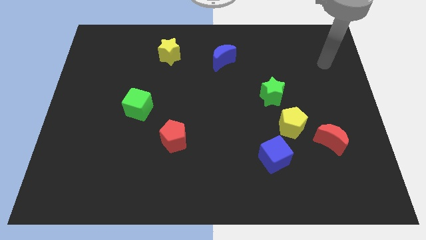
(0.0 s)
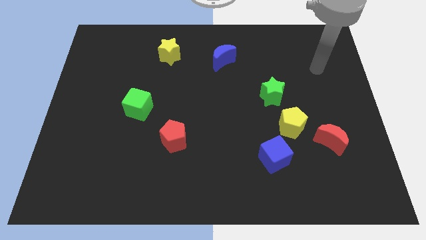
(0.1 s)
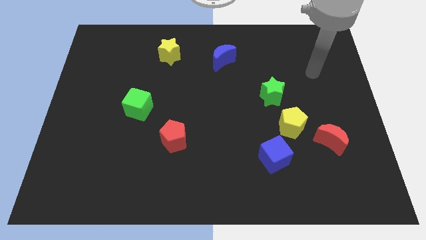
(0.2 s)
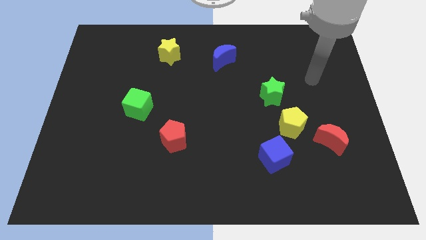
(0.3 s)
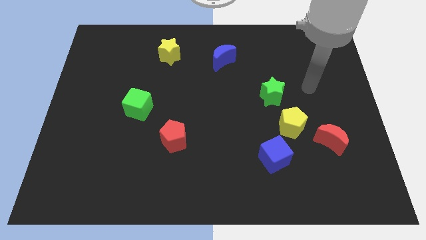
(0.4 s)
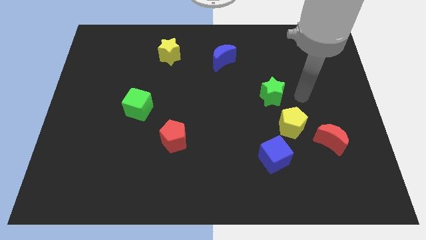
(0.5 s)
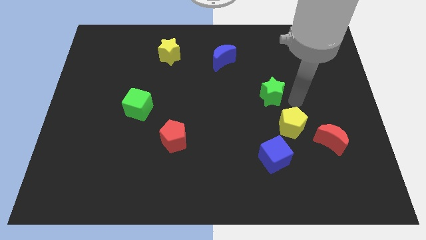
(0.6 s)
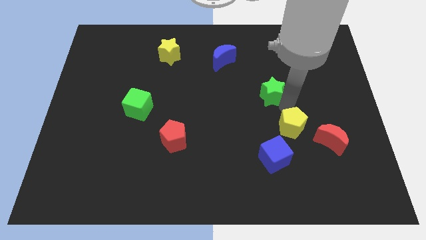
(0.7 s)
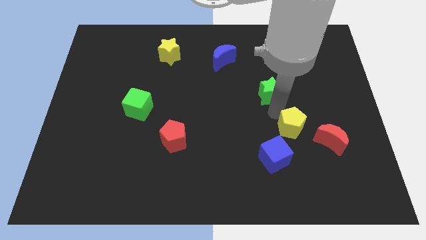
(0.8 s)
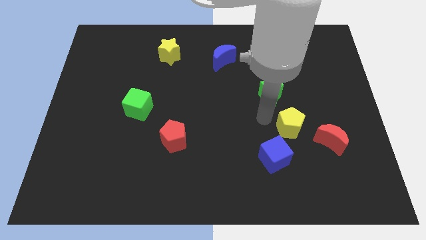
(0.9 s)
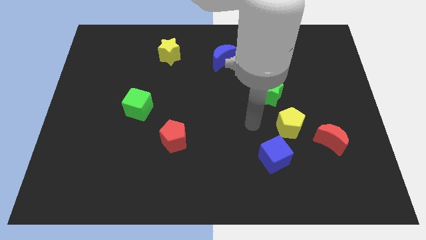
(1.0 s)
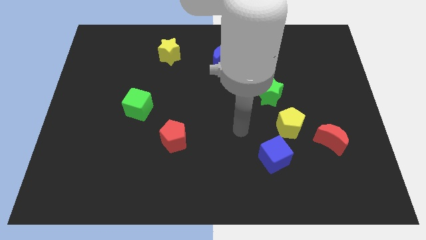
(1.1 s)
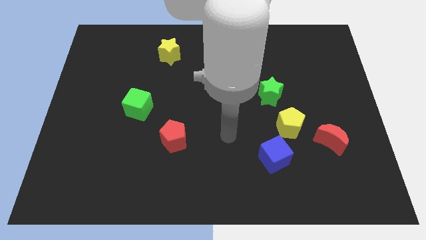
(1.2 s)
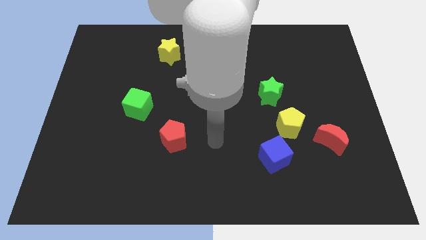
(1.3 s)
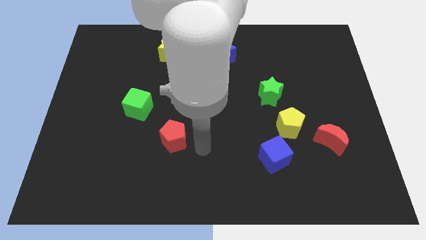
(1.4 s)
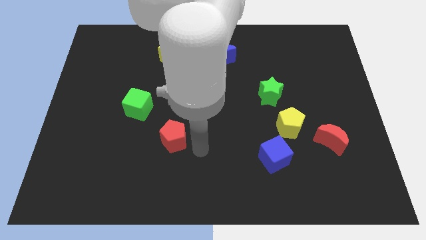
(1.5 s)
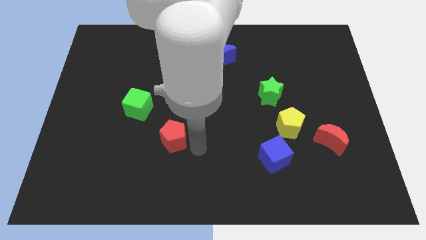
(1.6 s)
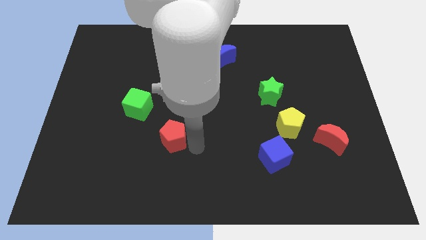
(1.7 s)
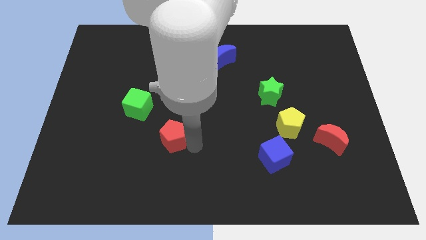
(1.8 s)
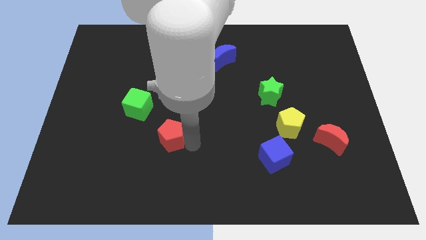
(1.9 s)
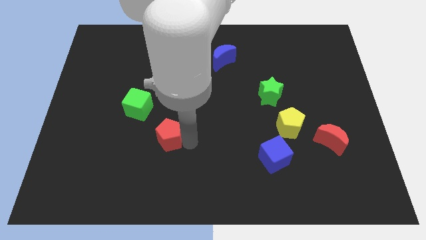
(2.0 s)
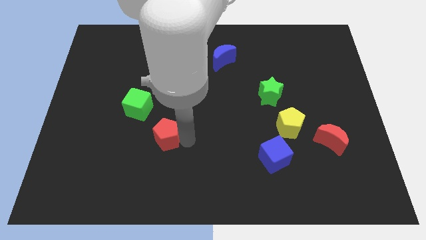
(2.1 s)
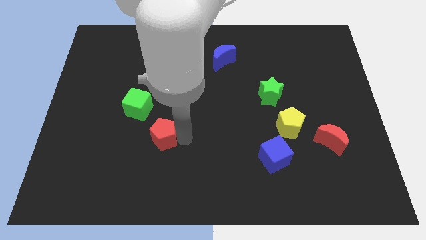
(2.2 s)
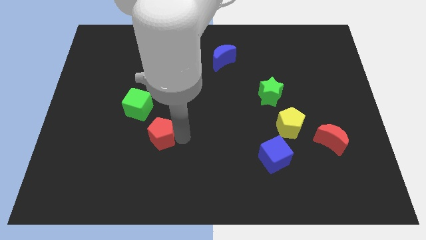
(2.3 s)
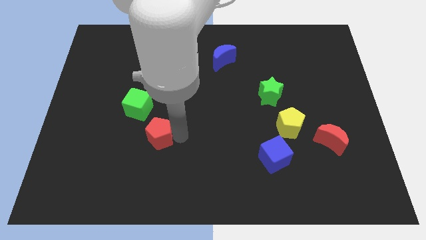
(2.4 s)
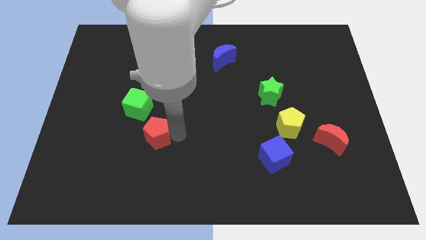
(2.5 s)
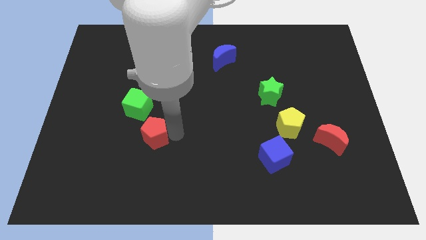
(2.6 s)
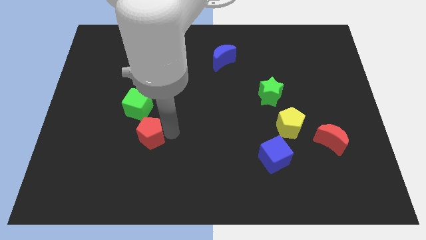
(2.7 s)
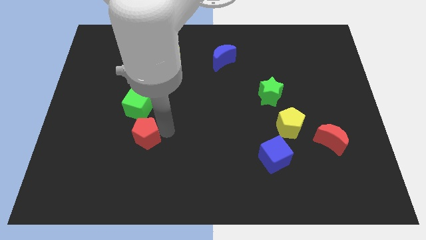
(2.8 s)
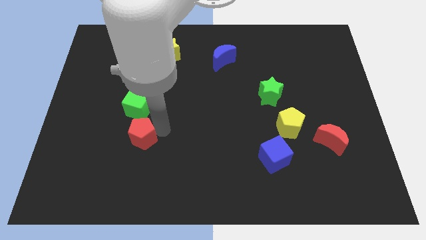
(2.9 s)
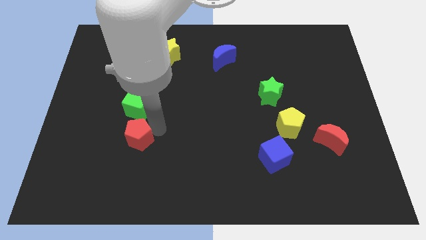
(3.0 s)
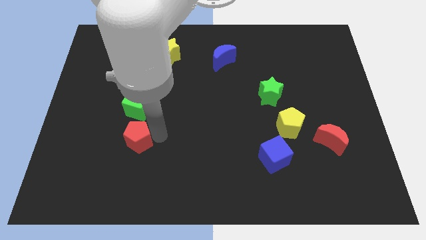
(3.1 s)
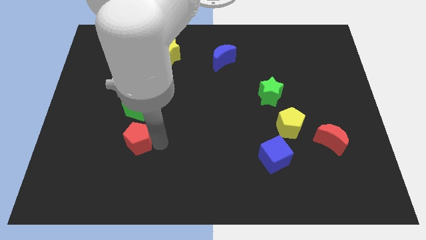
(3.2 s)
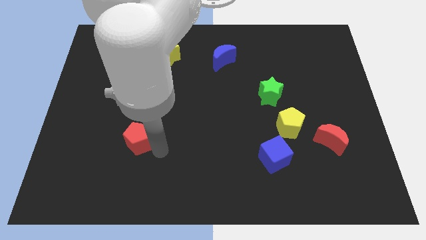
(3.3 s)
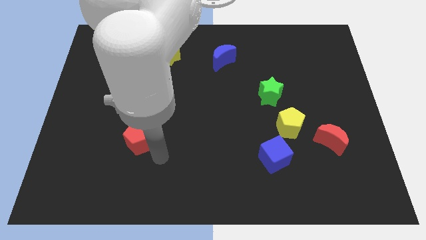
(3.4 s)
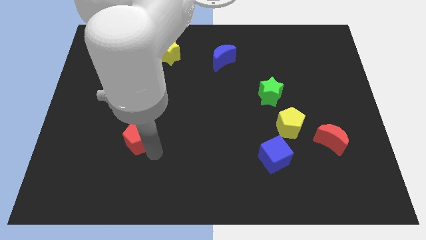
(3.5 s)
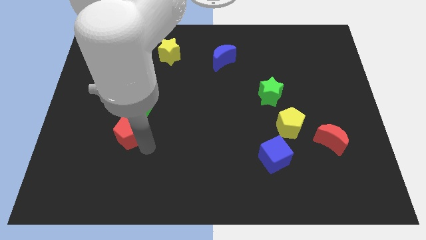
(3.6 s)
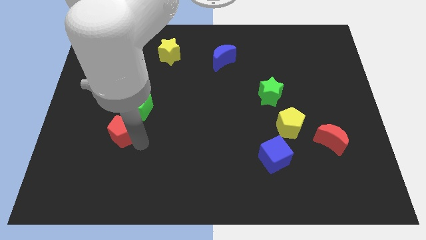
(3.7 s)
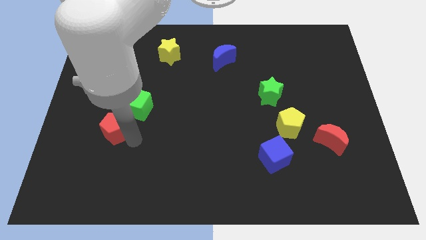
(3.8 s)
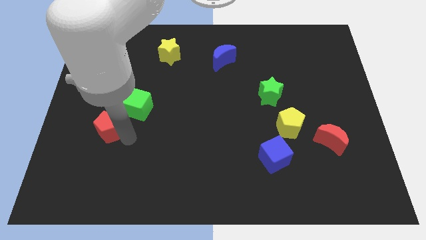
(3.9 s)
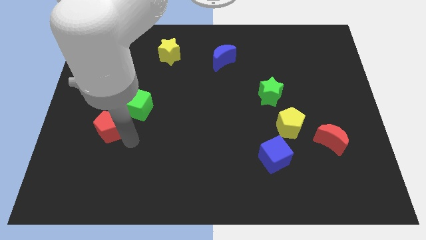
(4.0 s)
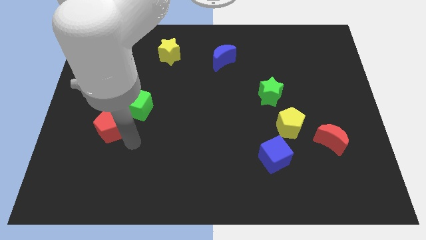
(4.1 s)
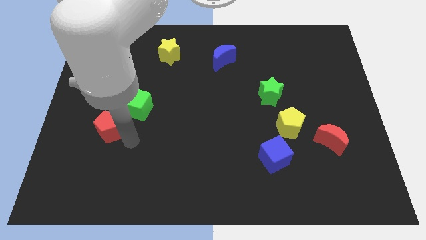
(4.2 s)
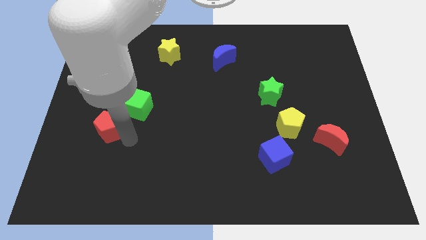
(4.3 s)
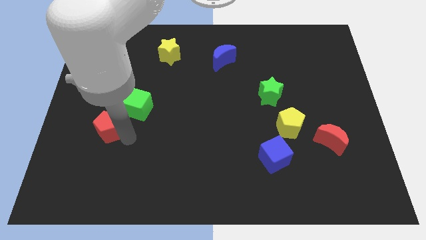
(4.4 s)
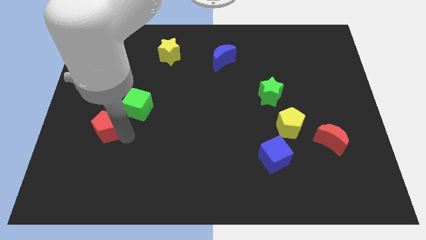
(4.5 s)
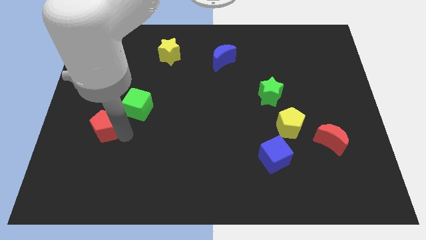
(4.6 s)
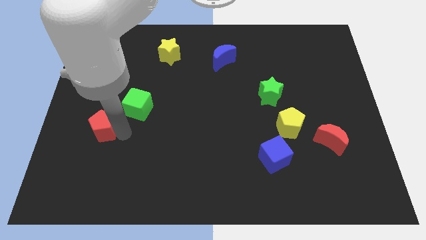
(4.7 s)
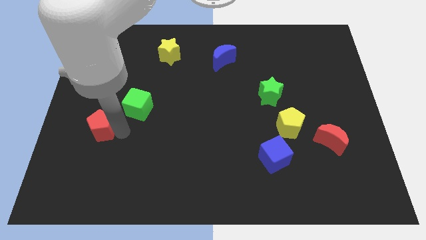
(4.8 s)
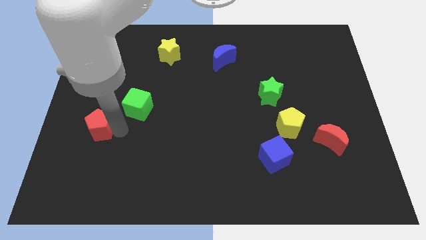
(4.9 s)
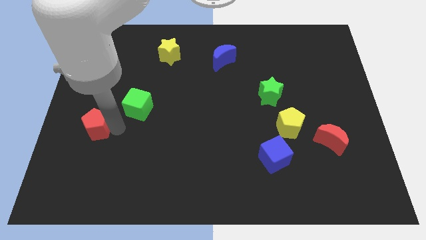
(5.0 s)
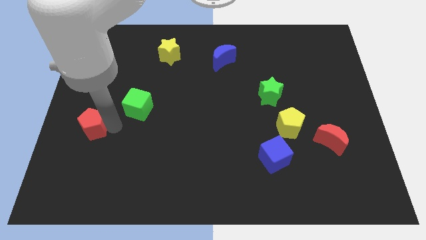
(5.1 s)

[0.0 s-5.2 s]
slide the red pentagon to the center left

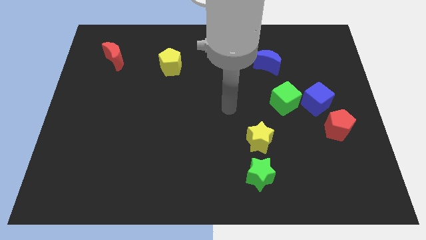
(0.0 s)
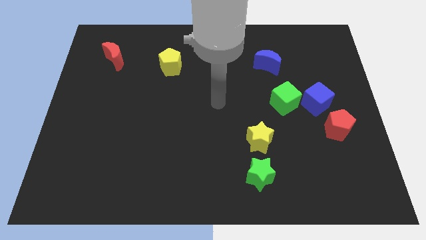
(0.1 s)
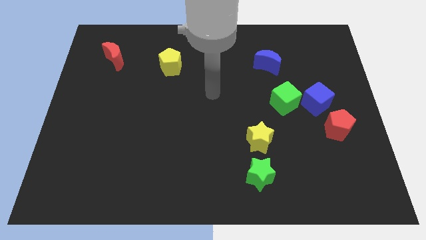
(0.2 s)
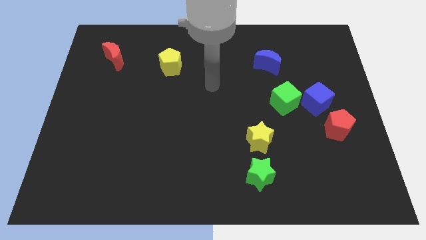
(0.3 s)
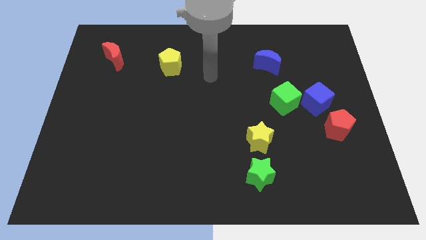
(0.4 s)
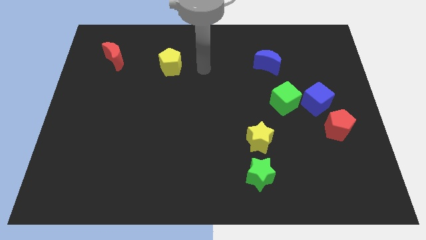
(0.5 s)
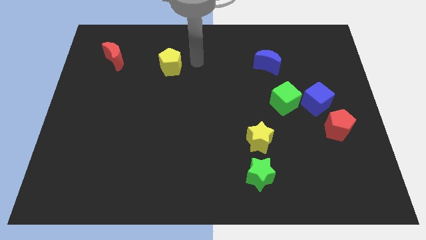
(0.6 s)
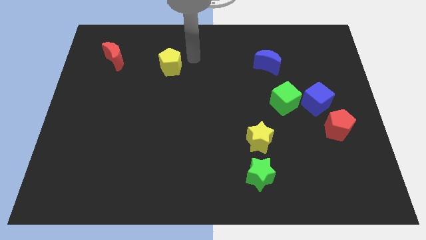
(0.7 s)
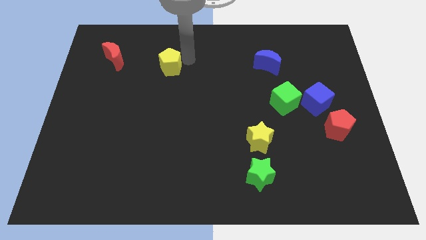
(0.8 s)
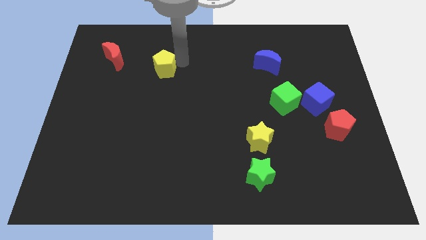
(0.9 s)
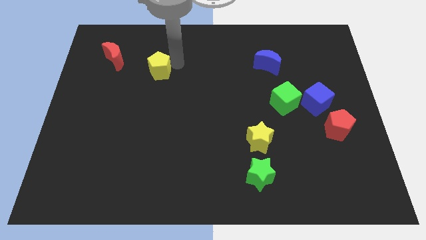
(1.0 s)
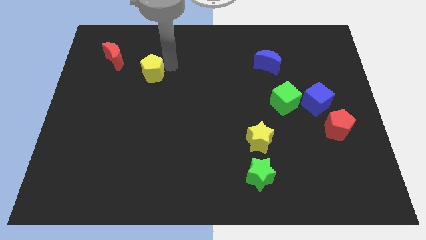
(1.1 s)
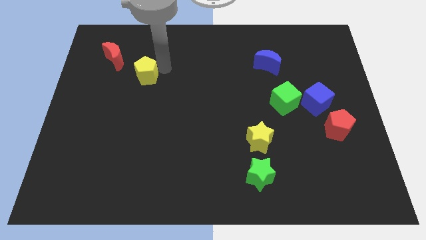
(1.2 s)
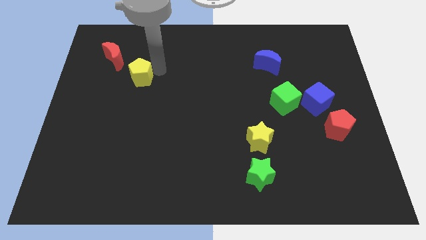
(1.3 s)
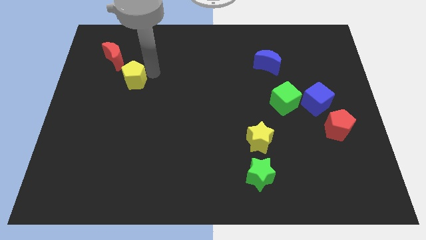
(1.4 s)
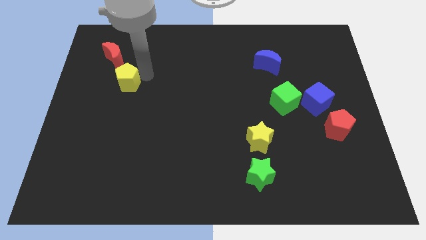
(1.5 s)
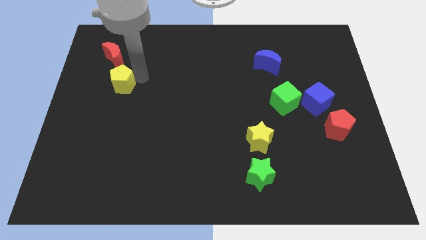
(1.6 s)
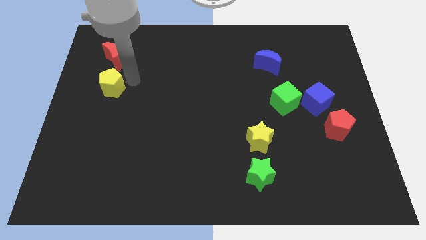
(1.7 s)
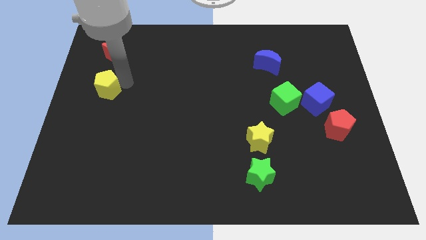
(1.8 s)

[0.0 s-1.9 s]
push the yellow pentagon to the left side

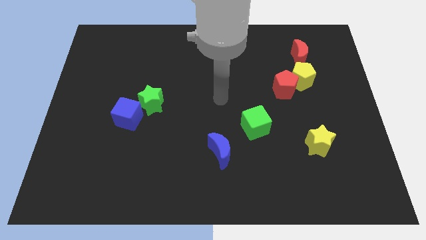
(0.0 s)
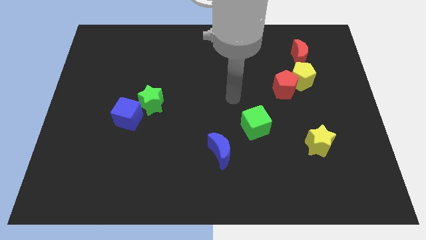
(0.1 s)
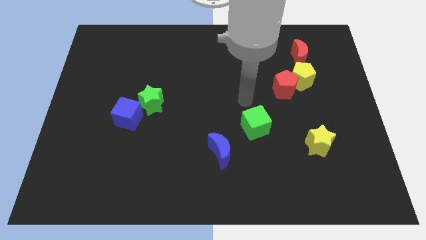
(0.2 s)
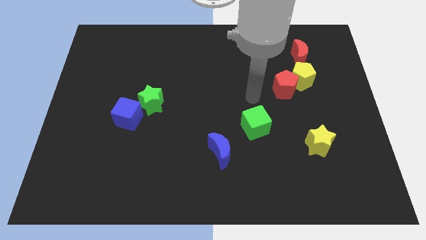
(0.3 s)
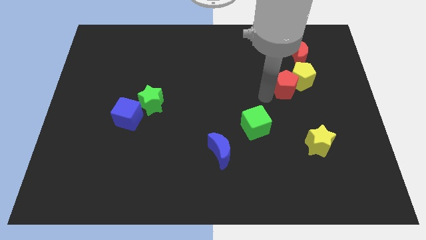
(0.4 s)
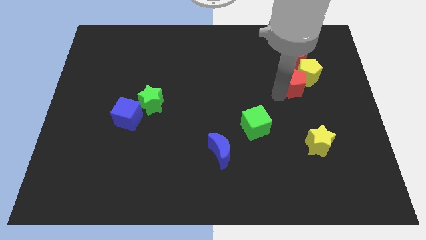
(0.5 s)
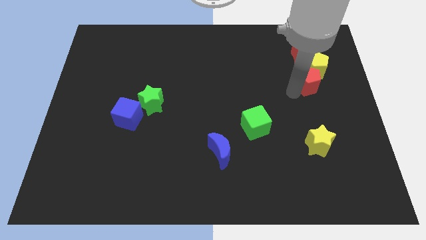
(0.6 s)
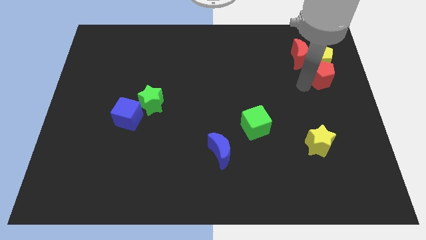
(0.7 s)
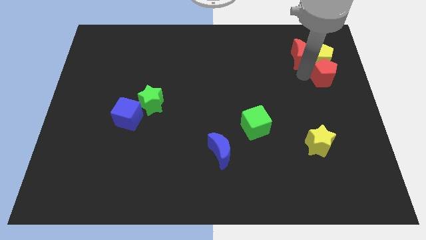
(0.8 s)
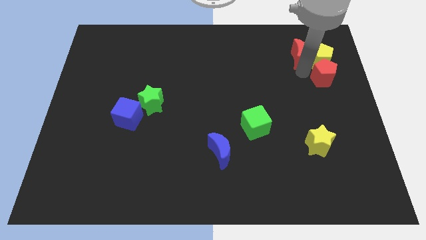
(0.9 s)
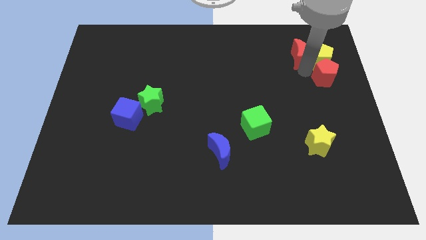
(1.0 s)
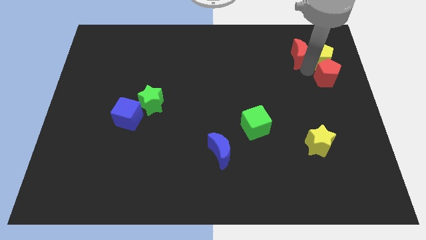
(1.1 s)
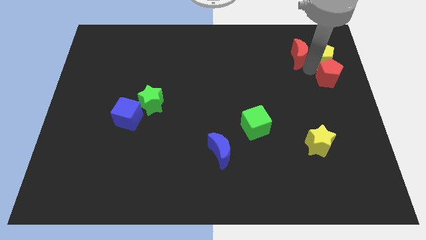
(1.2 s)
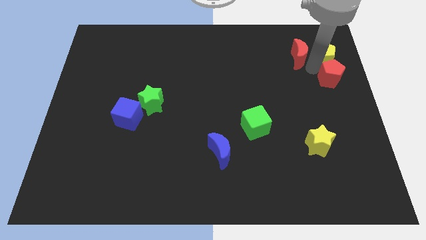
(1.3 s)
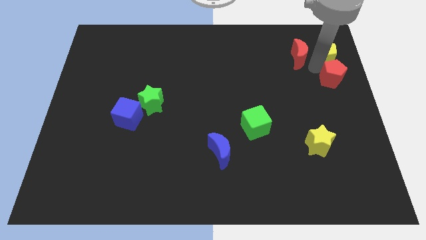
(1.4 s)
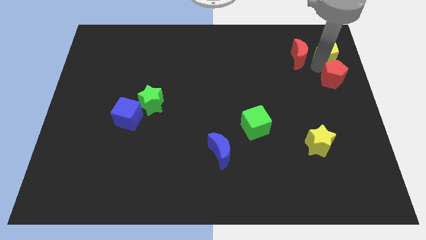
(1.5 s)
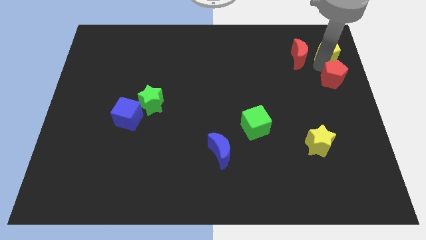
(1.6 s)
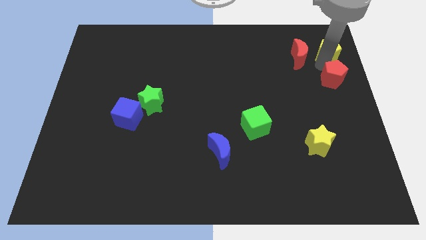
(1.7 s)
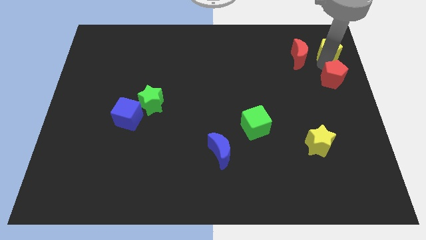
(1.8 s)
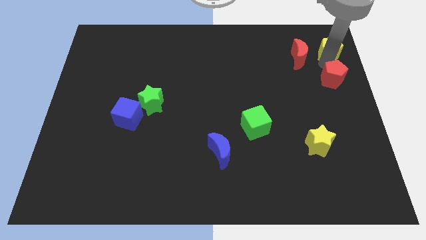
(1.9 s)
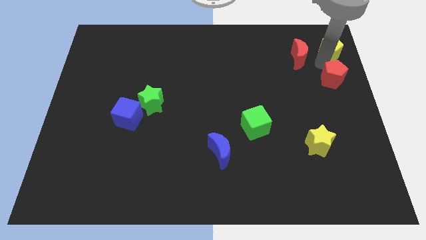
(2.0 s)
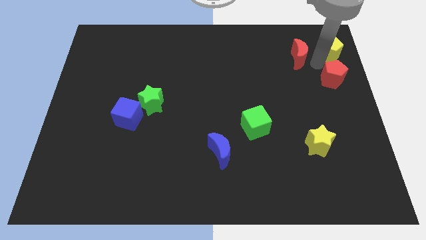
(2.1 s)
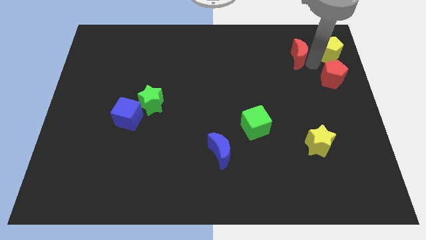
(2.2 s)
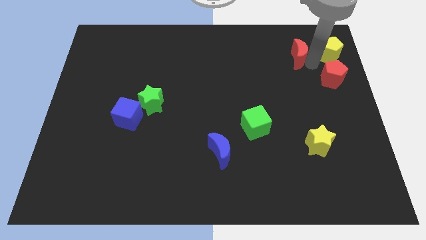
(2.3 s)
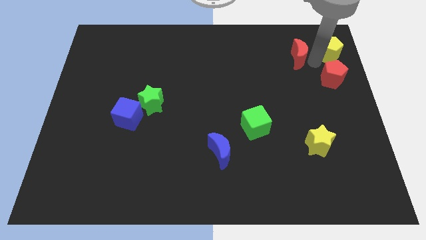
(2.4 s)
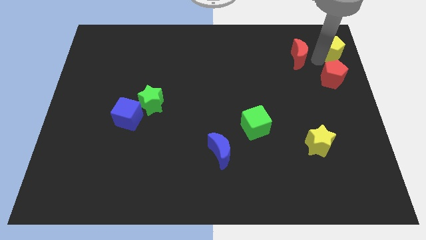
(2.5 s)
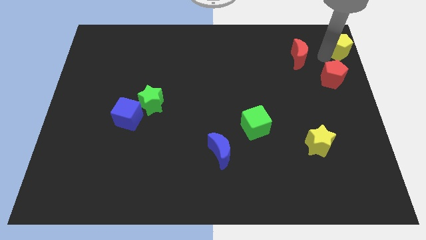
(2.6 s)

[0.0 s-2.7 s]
push the yellow pentagon to the top right
